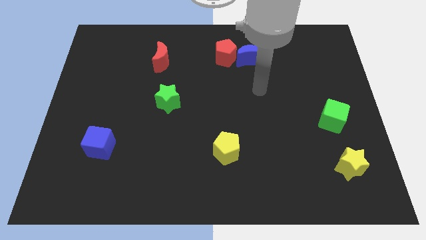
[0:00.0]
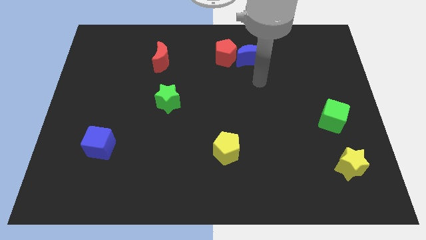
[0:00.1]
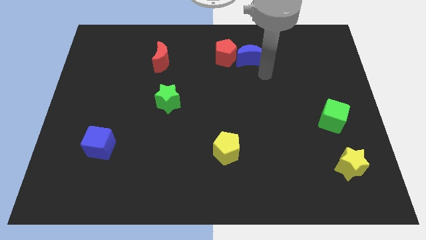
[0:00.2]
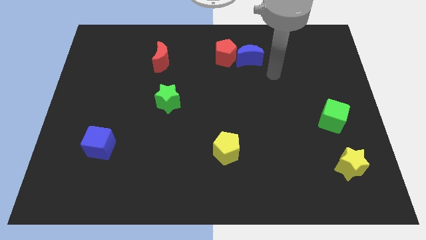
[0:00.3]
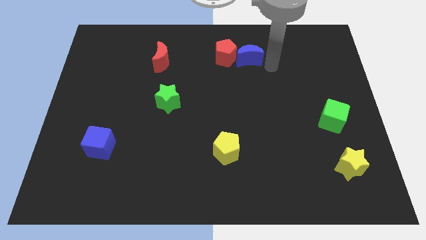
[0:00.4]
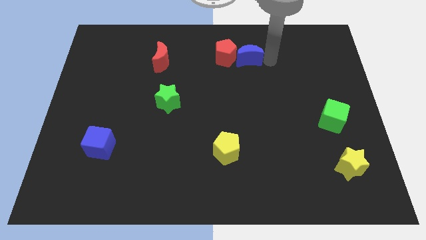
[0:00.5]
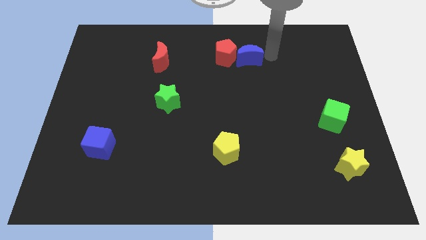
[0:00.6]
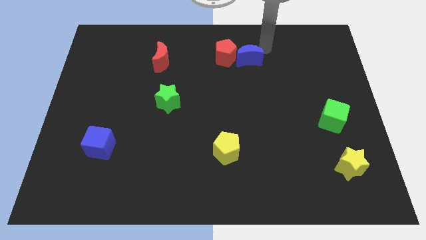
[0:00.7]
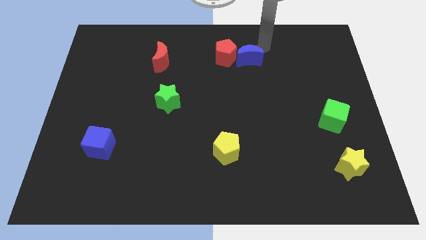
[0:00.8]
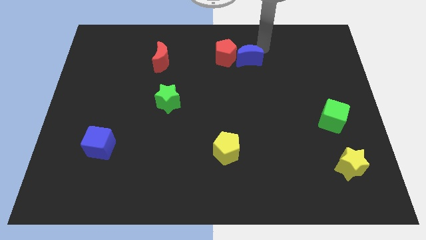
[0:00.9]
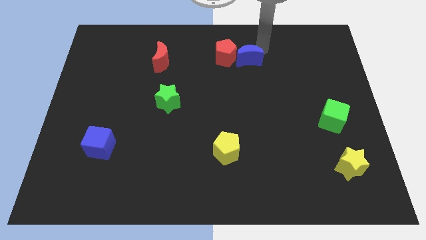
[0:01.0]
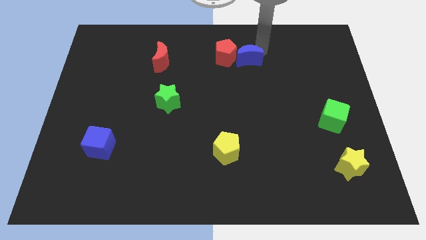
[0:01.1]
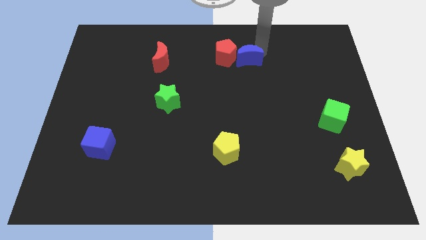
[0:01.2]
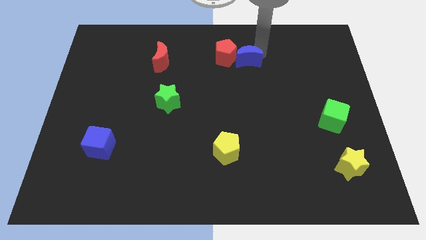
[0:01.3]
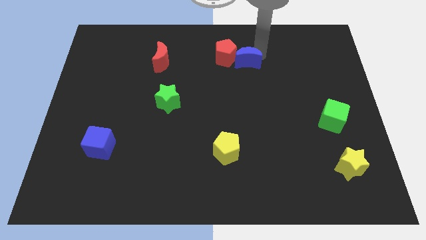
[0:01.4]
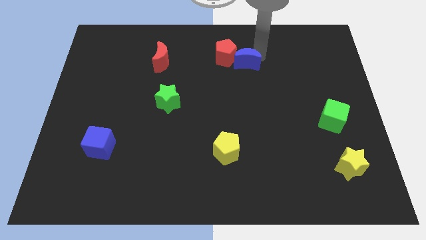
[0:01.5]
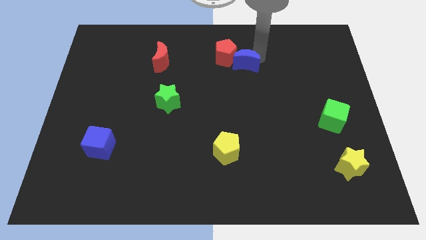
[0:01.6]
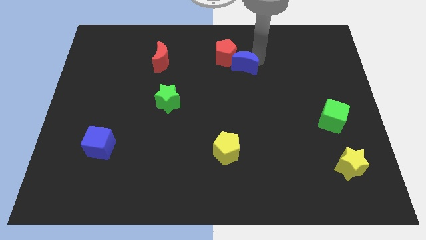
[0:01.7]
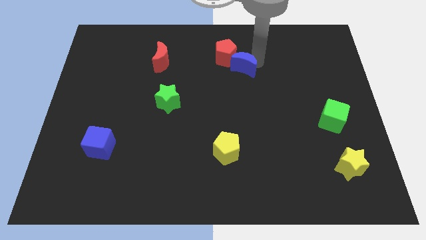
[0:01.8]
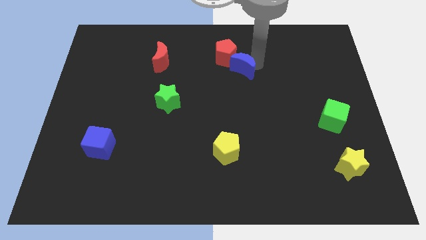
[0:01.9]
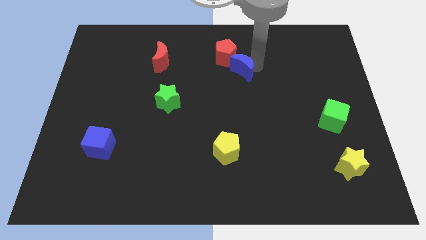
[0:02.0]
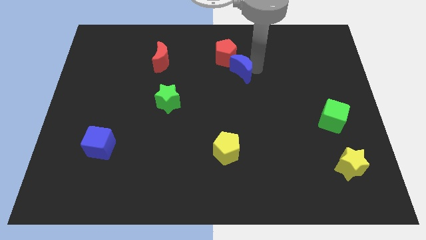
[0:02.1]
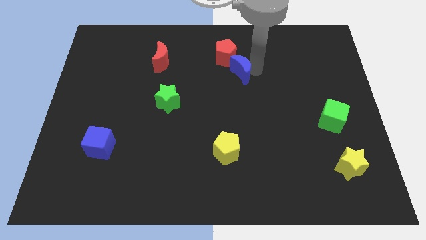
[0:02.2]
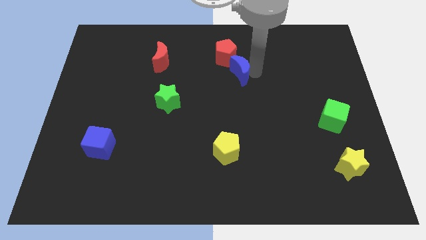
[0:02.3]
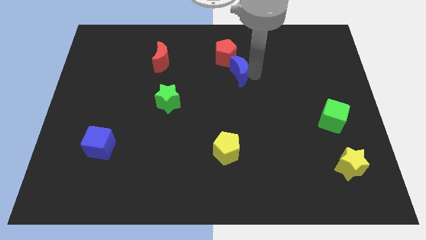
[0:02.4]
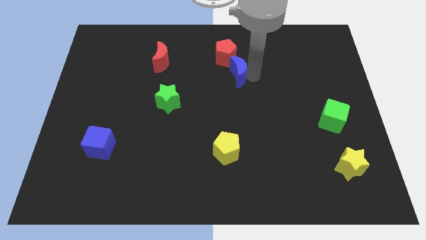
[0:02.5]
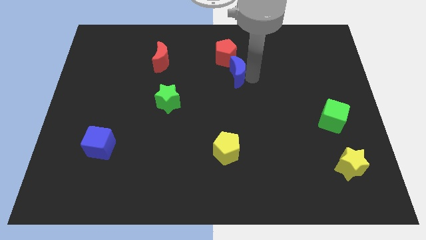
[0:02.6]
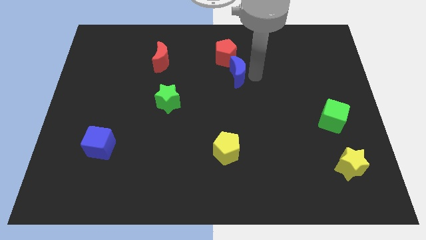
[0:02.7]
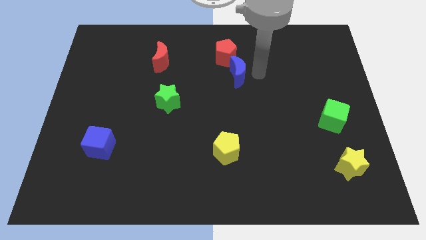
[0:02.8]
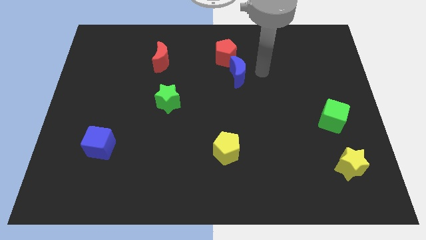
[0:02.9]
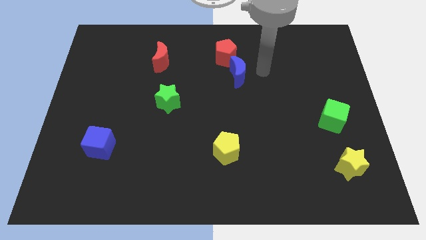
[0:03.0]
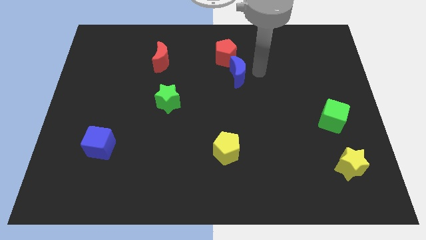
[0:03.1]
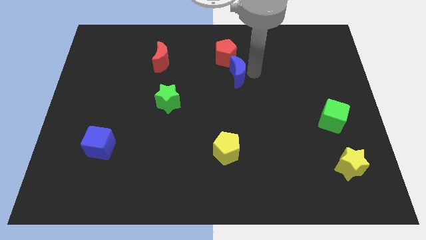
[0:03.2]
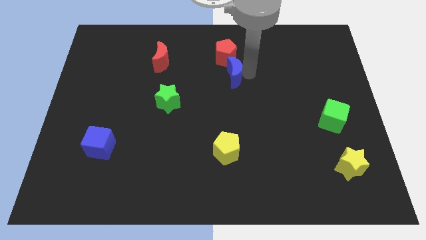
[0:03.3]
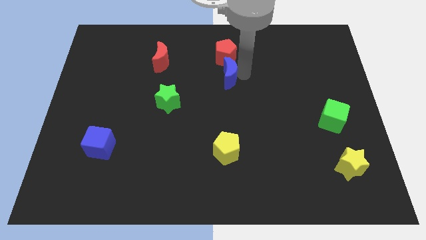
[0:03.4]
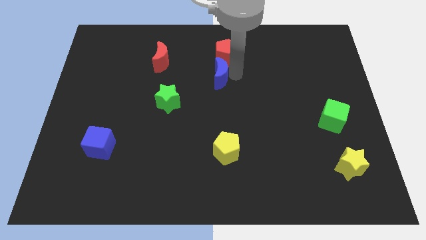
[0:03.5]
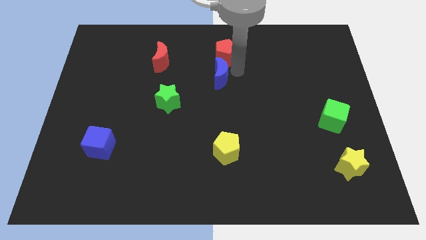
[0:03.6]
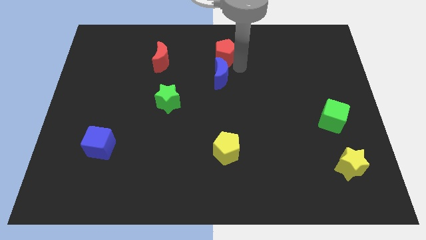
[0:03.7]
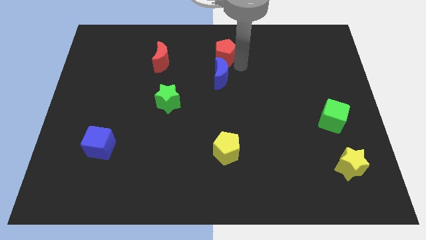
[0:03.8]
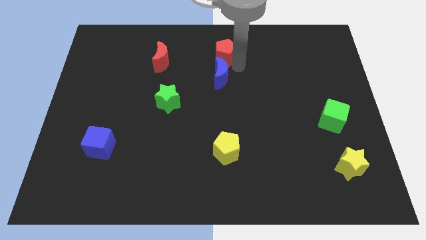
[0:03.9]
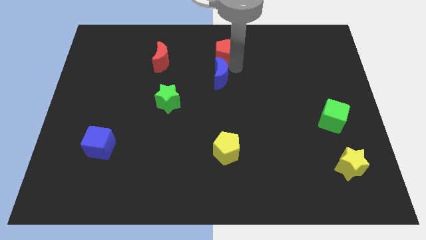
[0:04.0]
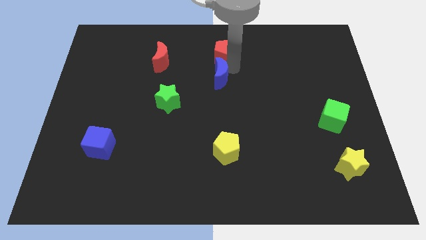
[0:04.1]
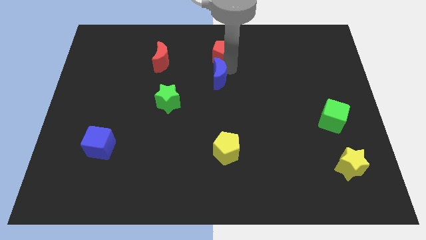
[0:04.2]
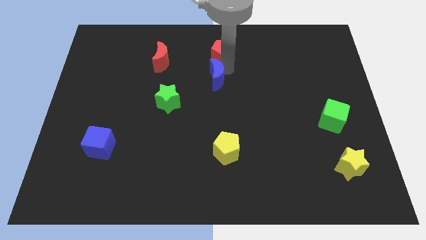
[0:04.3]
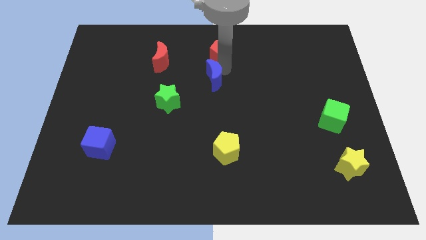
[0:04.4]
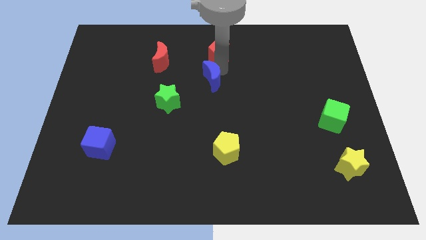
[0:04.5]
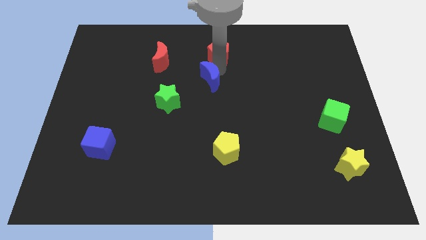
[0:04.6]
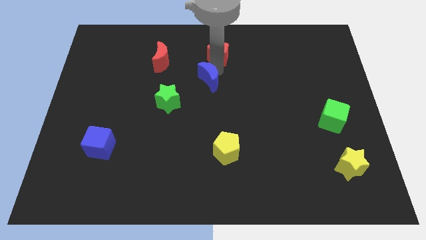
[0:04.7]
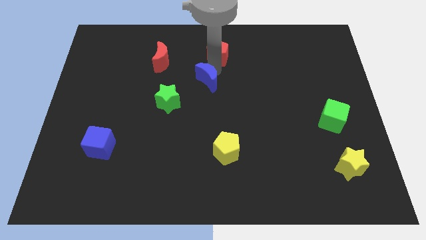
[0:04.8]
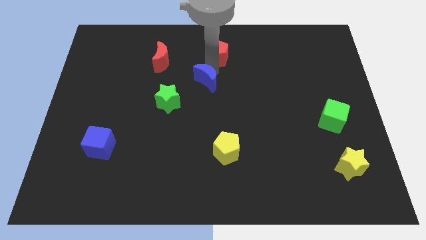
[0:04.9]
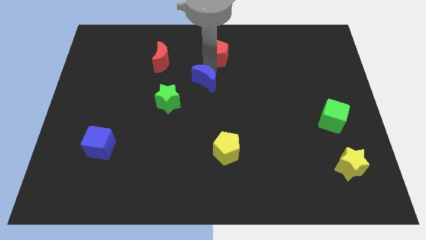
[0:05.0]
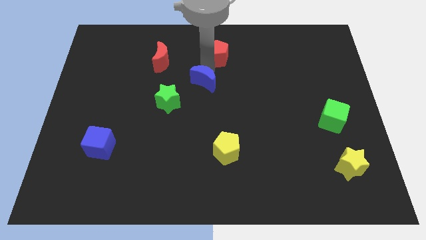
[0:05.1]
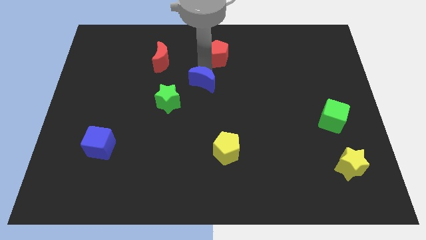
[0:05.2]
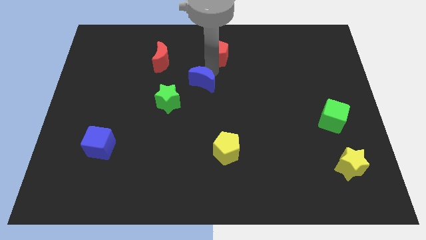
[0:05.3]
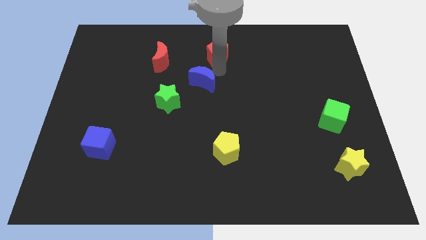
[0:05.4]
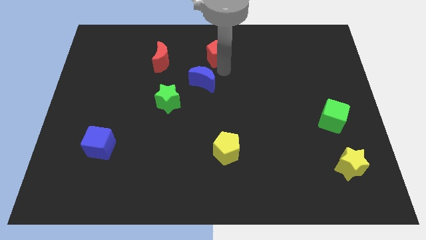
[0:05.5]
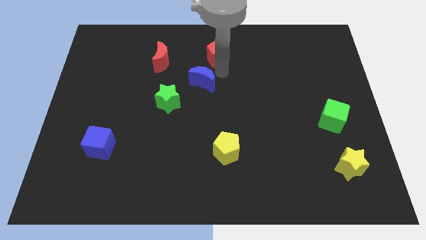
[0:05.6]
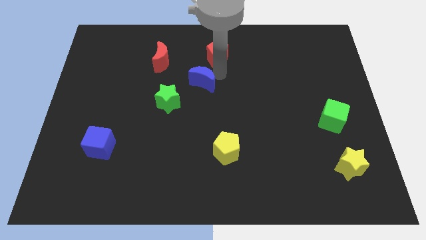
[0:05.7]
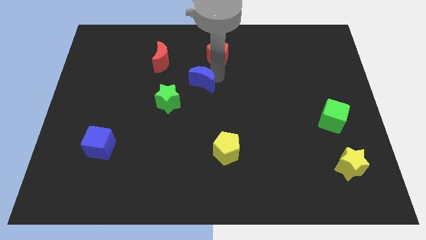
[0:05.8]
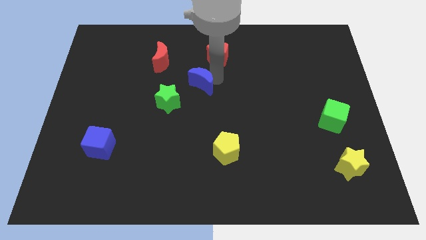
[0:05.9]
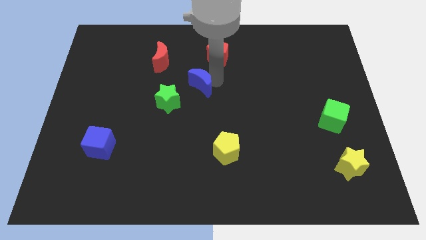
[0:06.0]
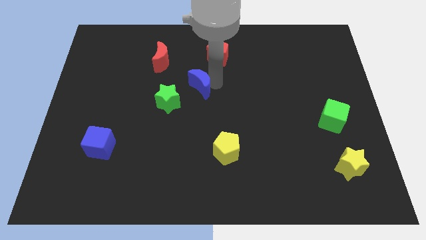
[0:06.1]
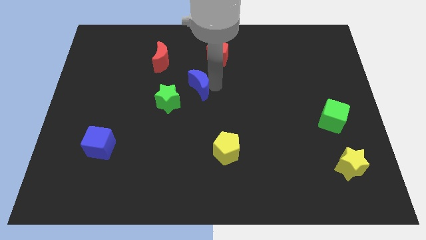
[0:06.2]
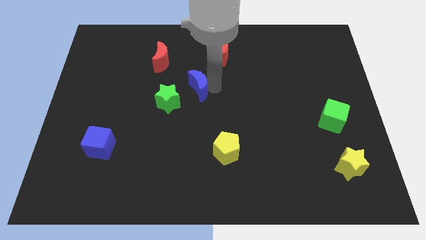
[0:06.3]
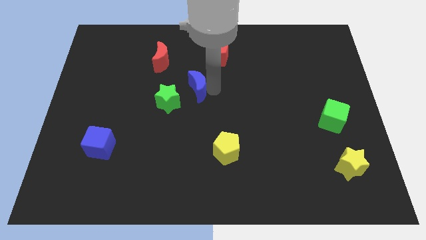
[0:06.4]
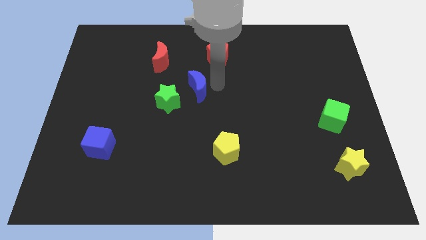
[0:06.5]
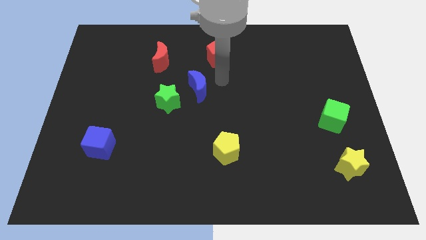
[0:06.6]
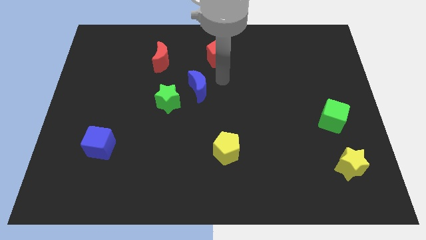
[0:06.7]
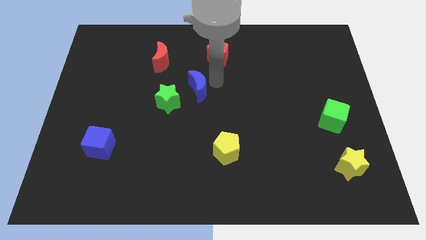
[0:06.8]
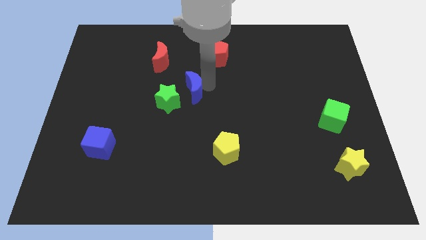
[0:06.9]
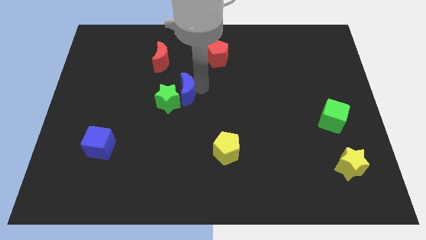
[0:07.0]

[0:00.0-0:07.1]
move the blue moon to the green star
